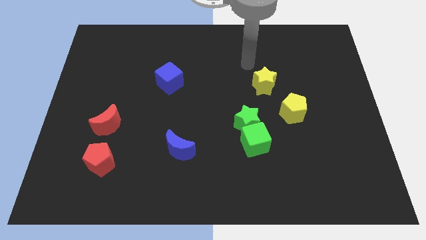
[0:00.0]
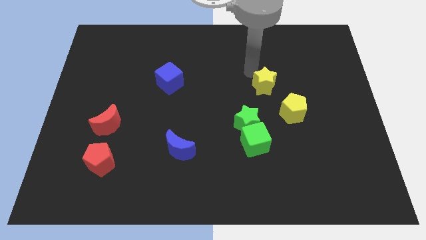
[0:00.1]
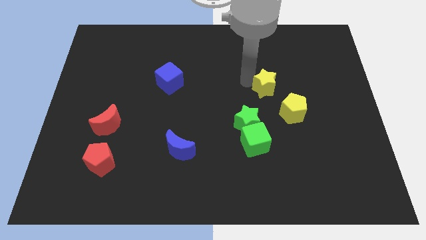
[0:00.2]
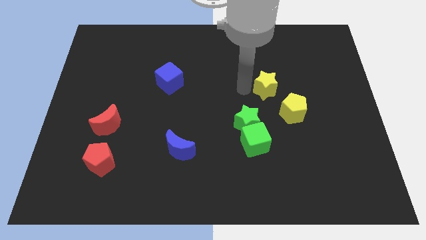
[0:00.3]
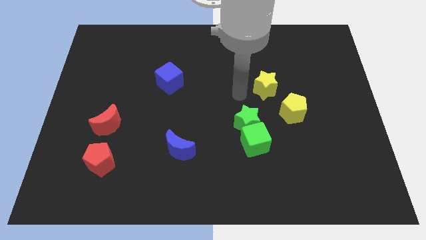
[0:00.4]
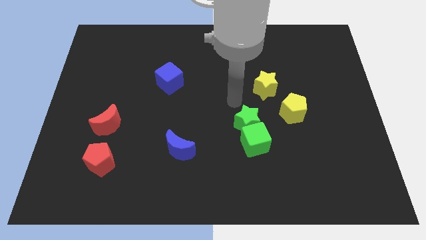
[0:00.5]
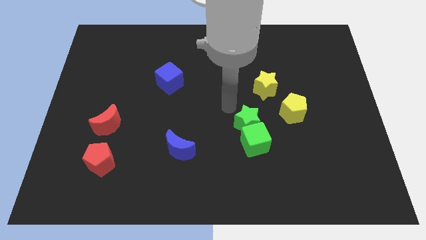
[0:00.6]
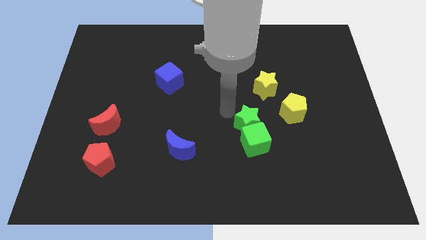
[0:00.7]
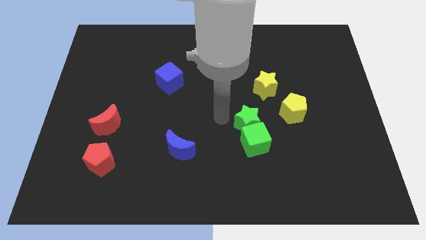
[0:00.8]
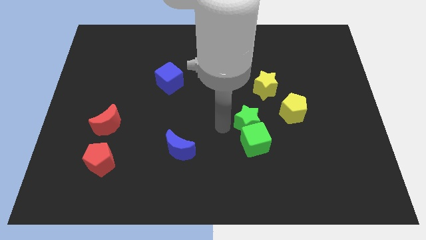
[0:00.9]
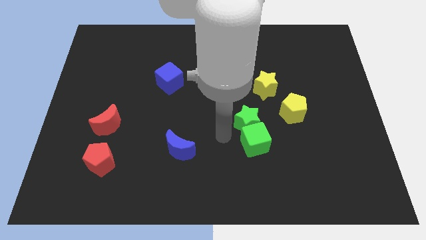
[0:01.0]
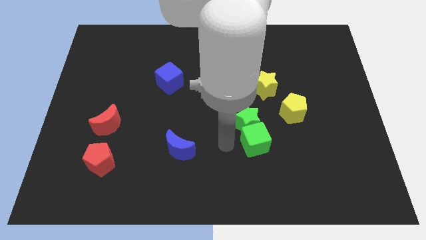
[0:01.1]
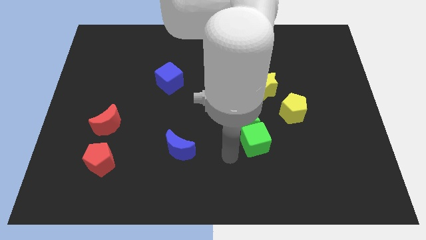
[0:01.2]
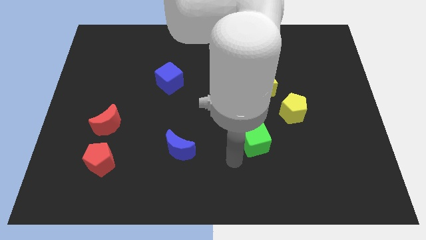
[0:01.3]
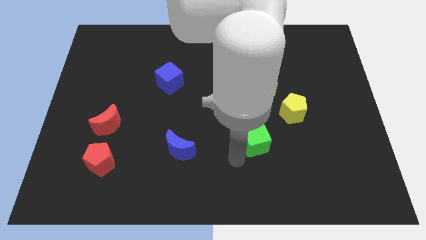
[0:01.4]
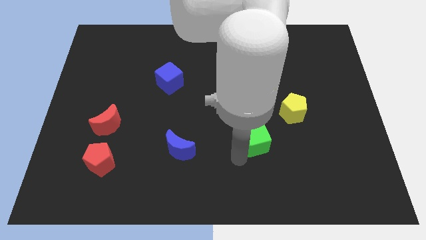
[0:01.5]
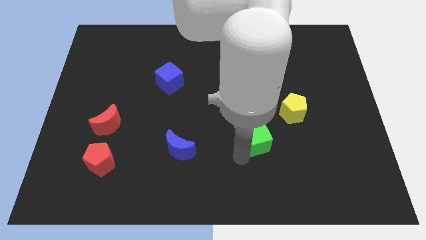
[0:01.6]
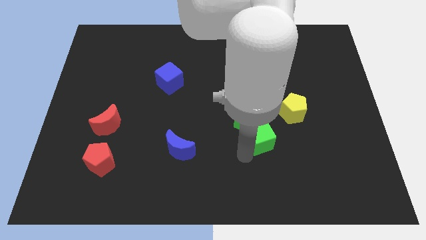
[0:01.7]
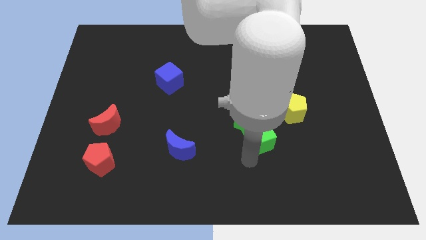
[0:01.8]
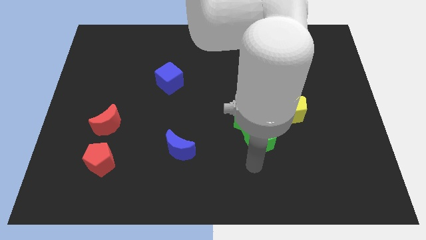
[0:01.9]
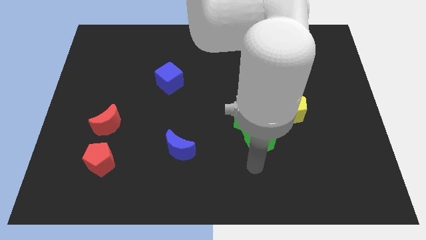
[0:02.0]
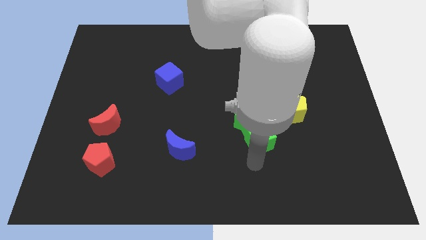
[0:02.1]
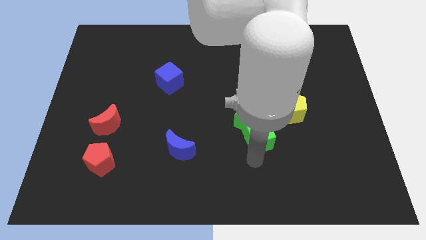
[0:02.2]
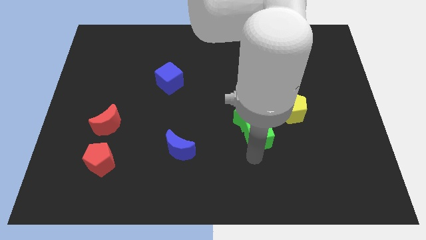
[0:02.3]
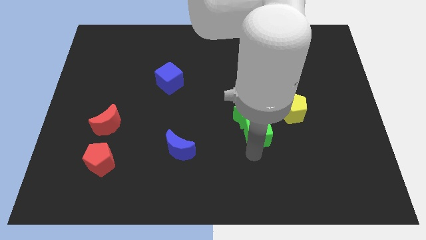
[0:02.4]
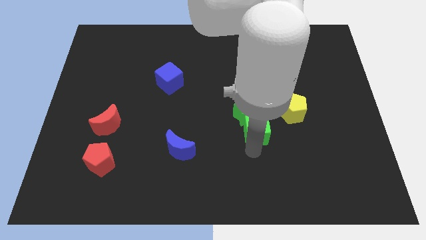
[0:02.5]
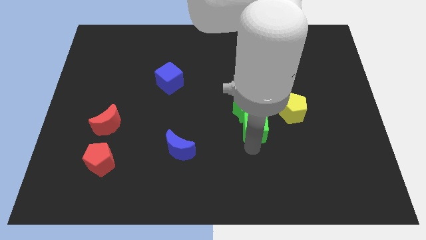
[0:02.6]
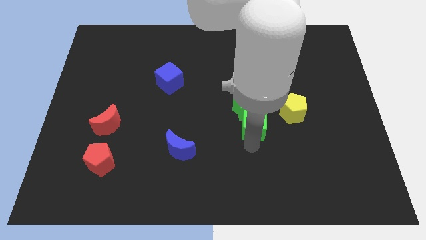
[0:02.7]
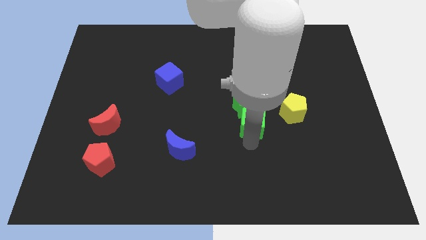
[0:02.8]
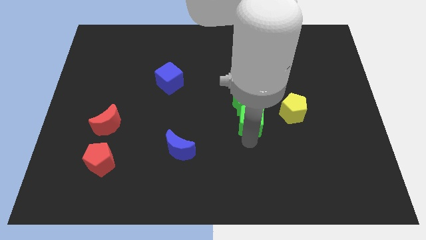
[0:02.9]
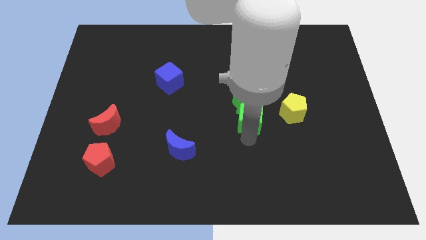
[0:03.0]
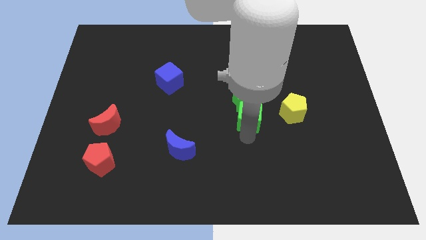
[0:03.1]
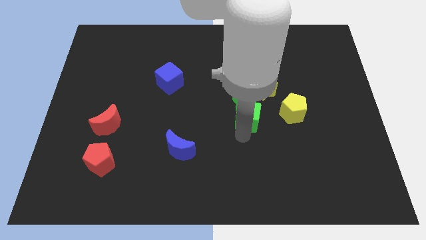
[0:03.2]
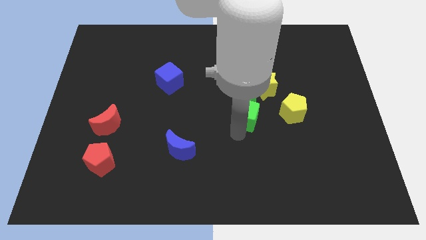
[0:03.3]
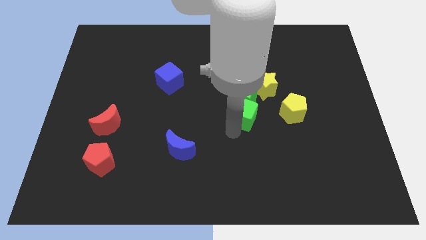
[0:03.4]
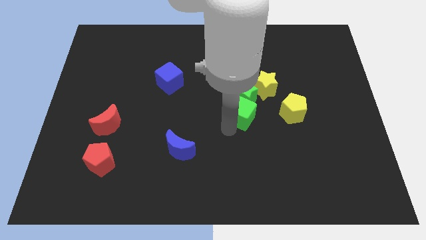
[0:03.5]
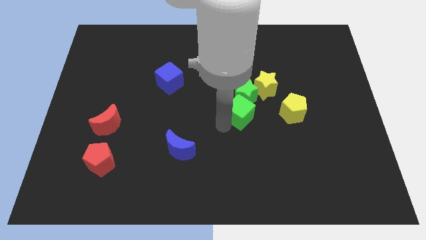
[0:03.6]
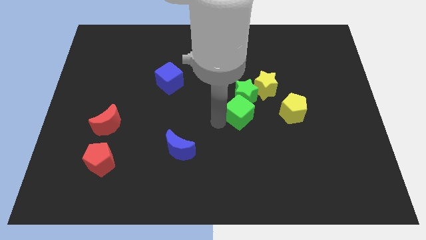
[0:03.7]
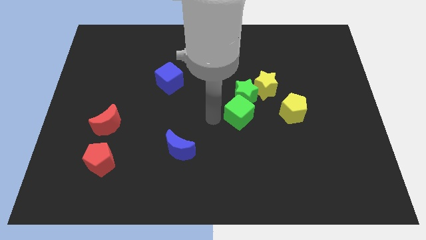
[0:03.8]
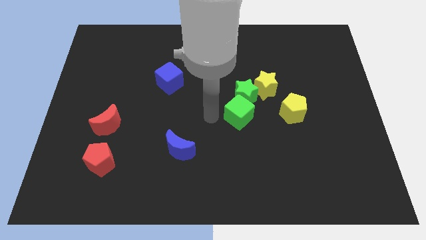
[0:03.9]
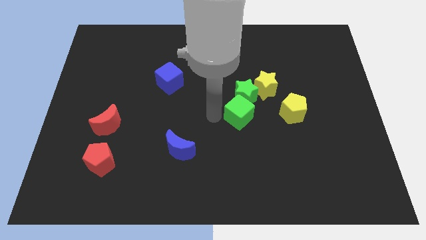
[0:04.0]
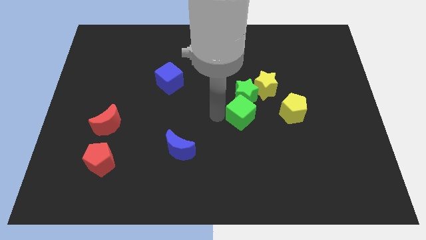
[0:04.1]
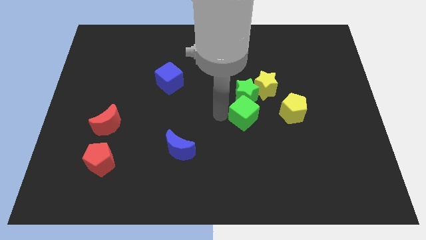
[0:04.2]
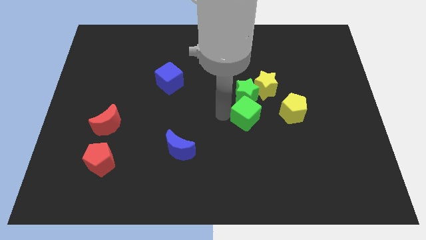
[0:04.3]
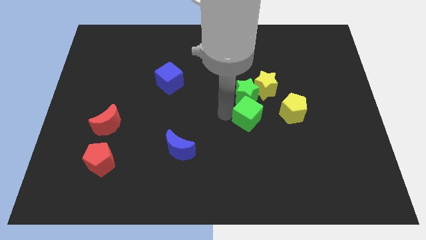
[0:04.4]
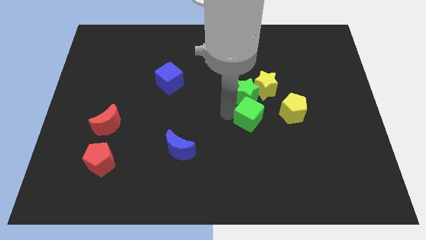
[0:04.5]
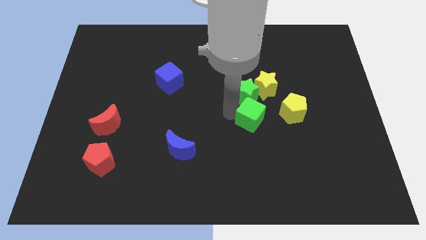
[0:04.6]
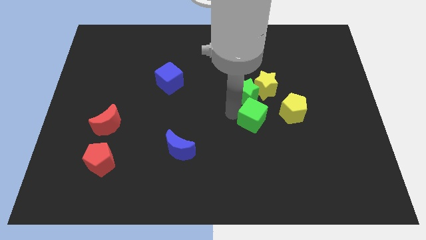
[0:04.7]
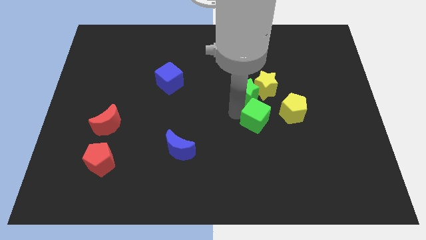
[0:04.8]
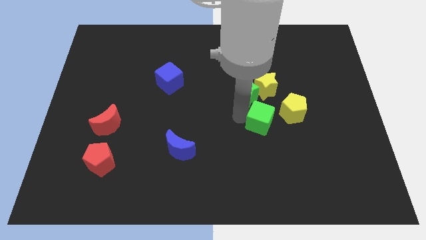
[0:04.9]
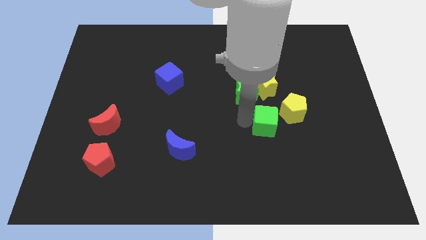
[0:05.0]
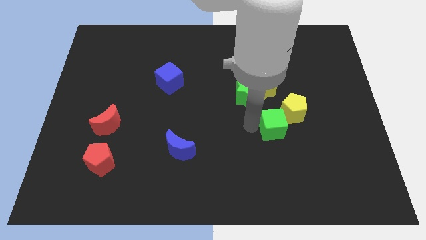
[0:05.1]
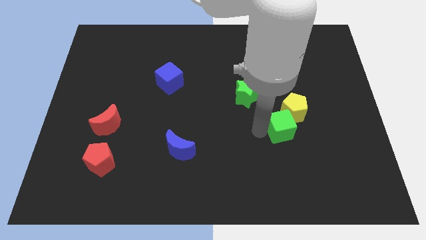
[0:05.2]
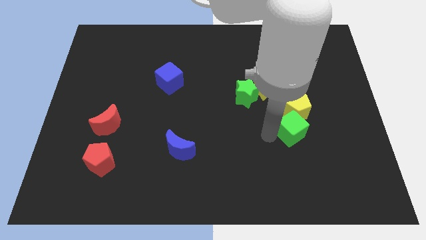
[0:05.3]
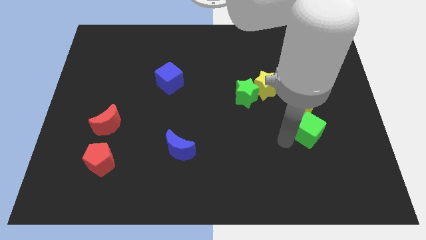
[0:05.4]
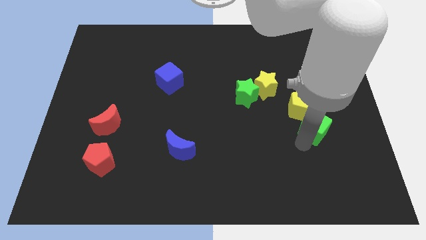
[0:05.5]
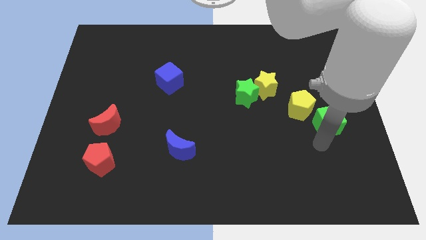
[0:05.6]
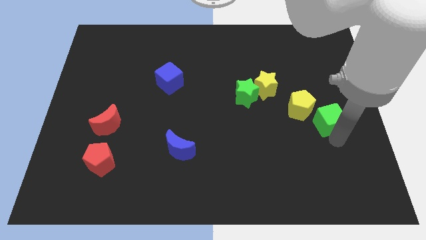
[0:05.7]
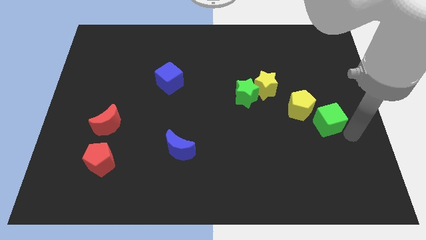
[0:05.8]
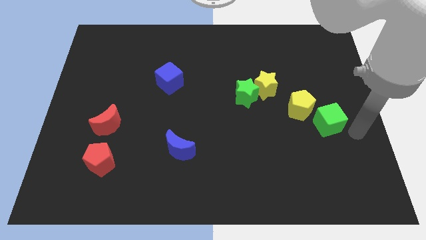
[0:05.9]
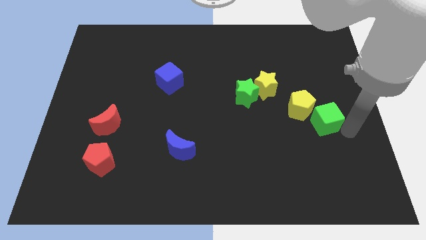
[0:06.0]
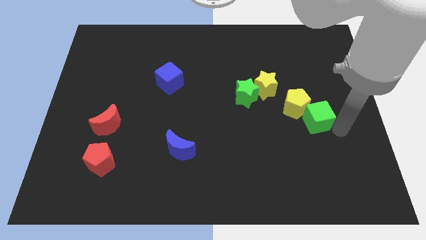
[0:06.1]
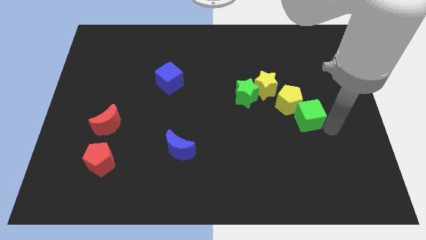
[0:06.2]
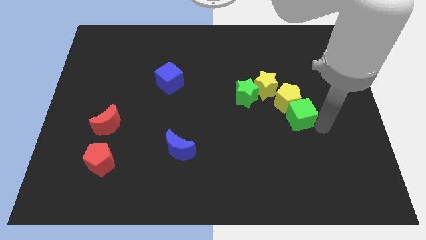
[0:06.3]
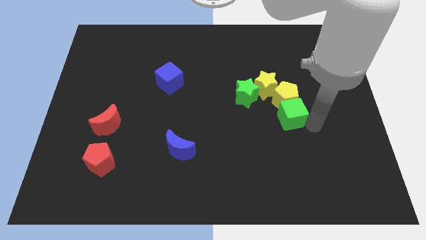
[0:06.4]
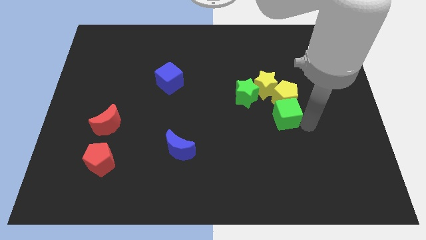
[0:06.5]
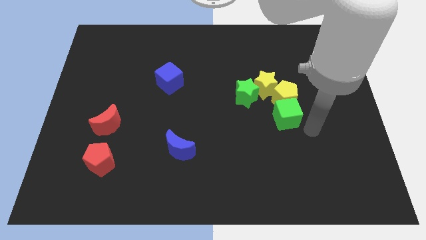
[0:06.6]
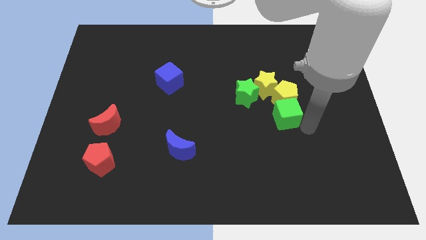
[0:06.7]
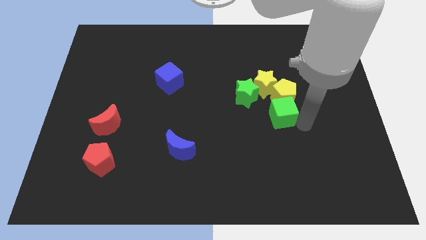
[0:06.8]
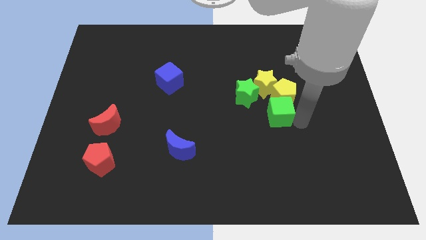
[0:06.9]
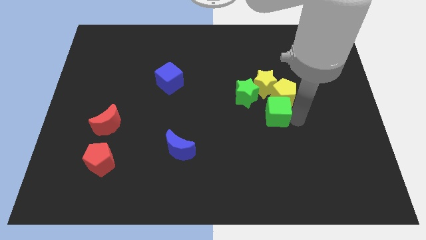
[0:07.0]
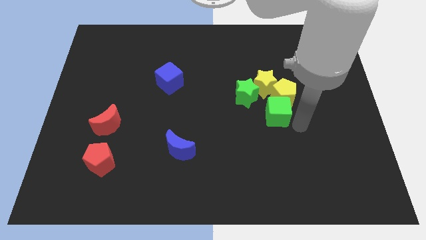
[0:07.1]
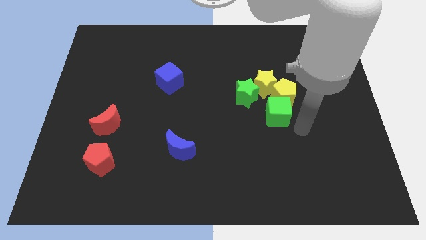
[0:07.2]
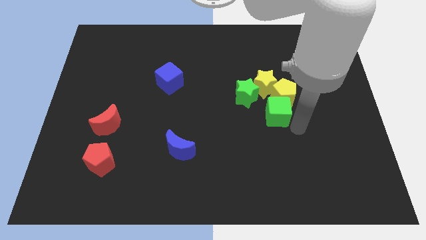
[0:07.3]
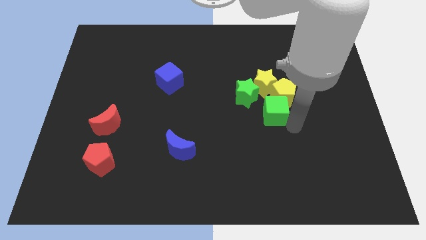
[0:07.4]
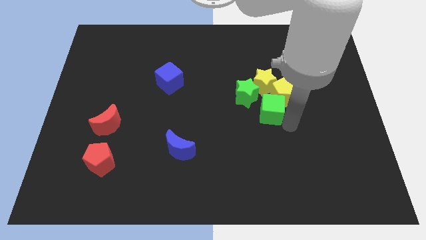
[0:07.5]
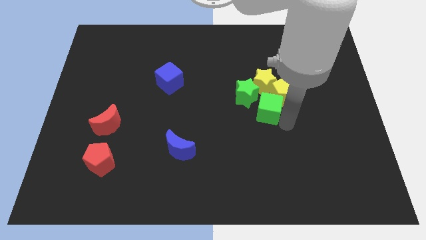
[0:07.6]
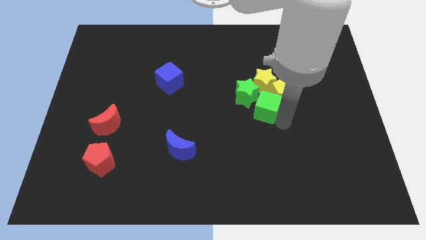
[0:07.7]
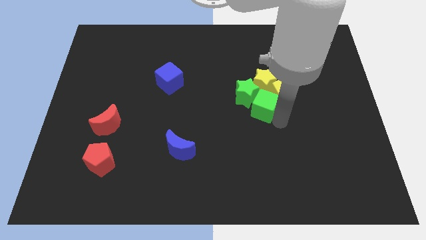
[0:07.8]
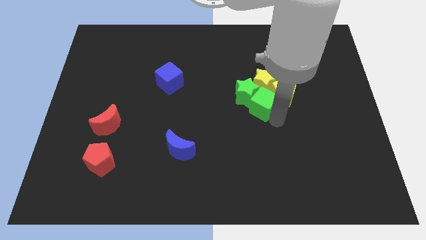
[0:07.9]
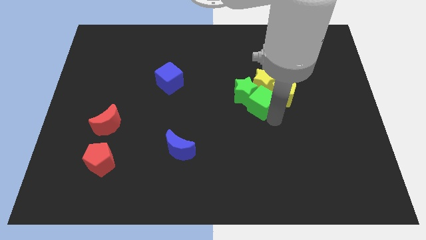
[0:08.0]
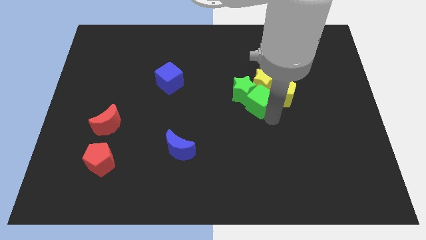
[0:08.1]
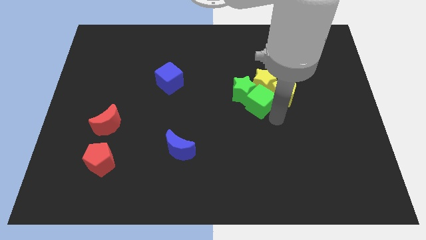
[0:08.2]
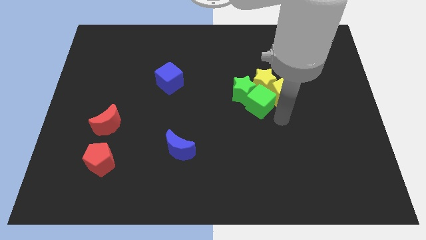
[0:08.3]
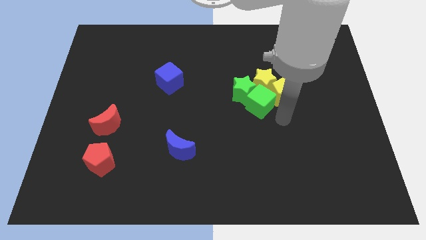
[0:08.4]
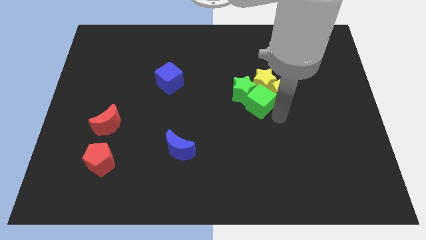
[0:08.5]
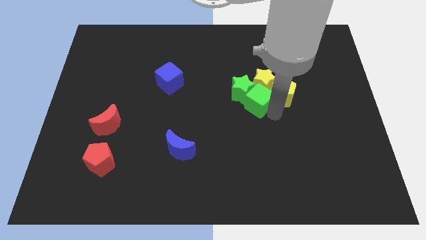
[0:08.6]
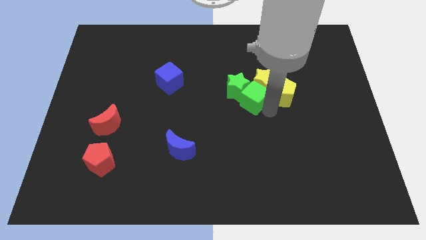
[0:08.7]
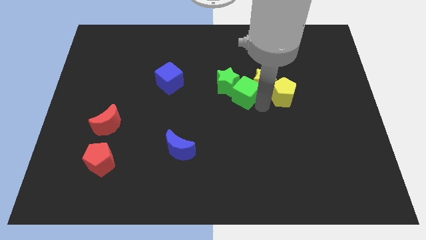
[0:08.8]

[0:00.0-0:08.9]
slide the green cube left of the yellow star
